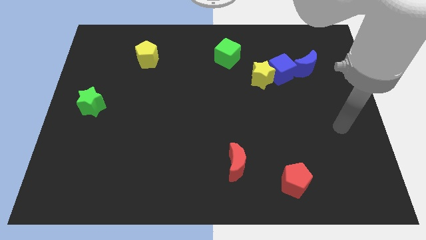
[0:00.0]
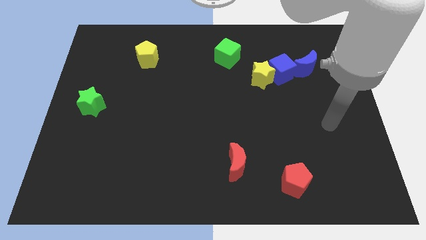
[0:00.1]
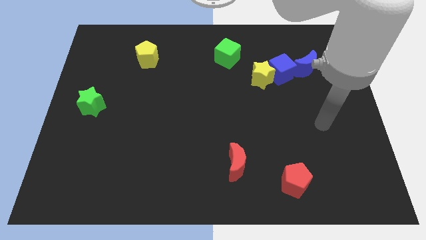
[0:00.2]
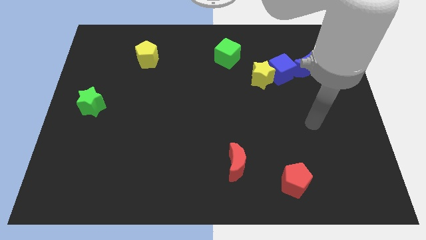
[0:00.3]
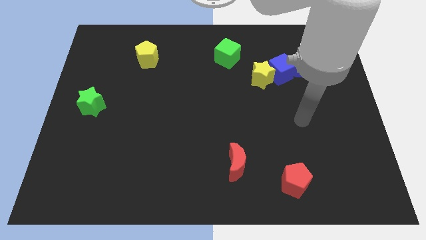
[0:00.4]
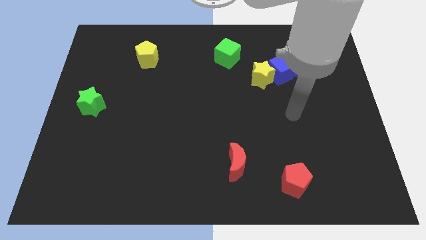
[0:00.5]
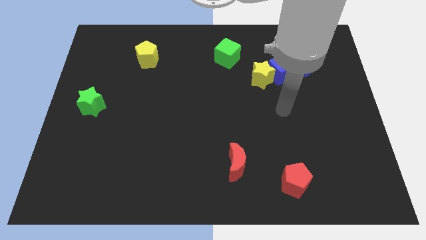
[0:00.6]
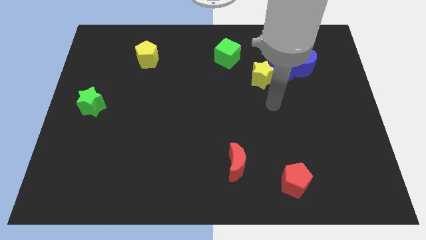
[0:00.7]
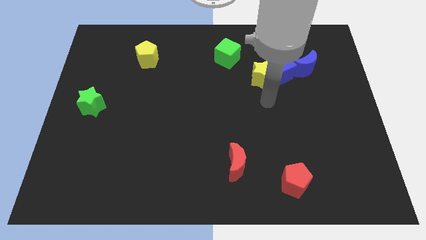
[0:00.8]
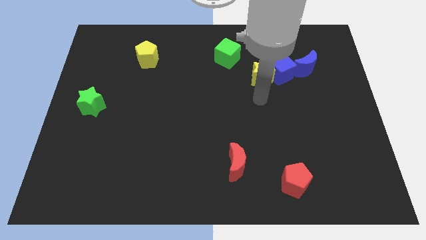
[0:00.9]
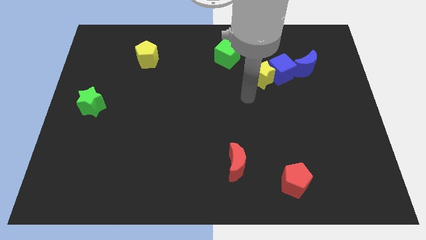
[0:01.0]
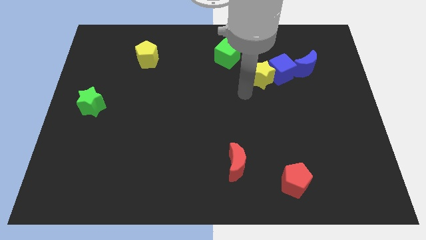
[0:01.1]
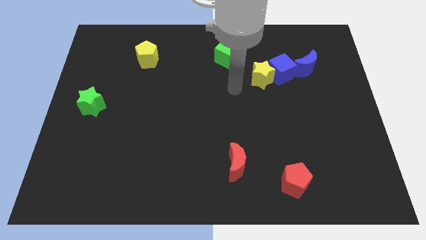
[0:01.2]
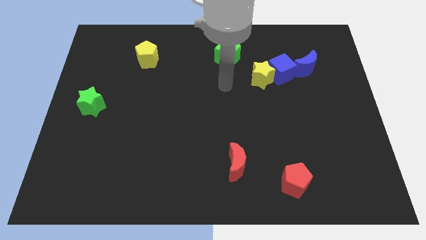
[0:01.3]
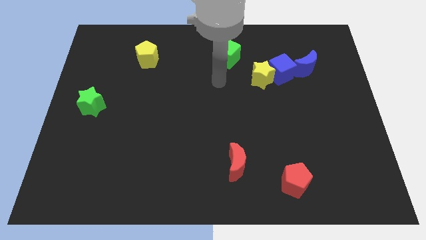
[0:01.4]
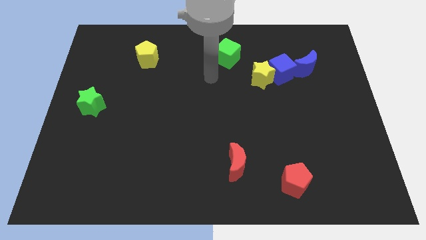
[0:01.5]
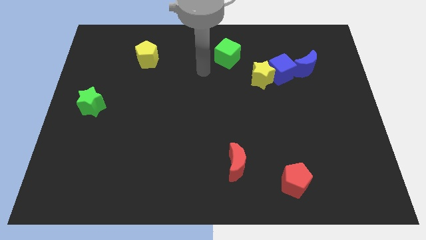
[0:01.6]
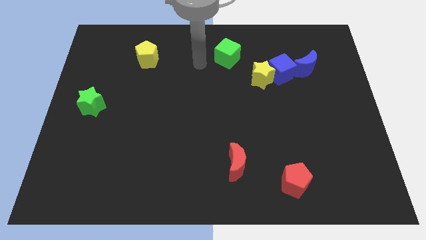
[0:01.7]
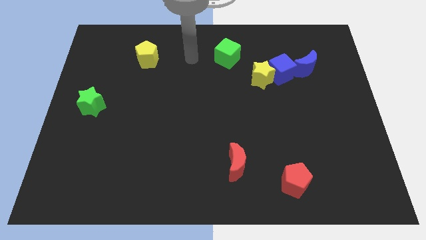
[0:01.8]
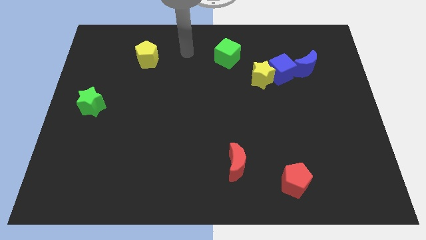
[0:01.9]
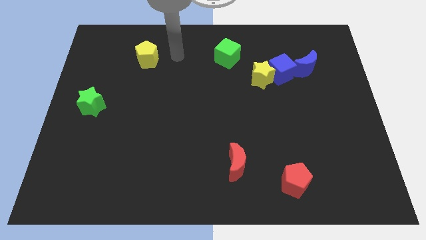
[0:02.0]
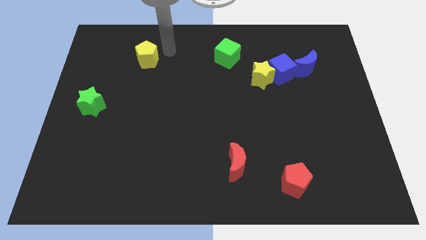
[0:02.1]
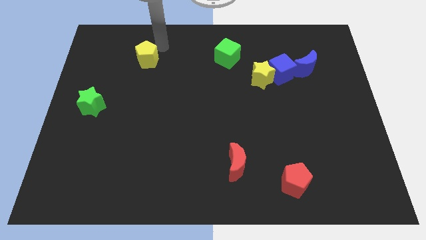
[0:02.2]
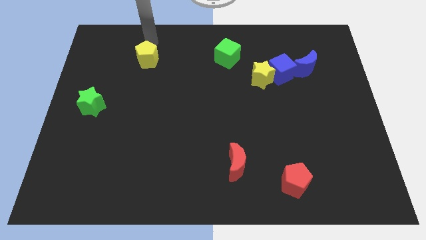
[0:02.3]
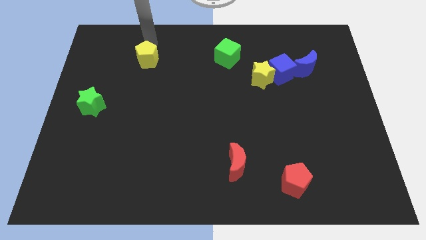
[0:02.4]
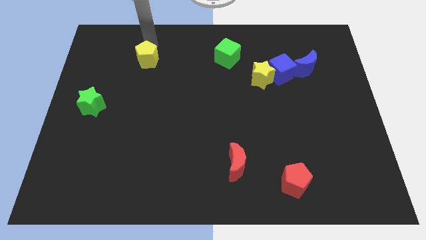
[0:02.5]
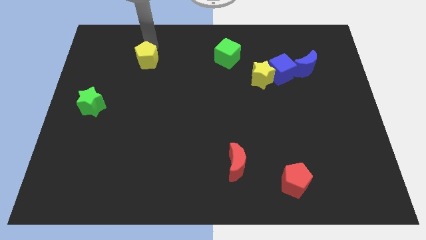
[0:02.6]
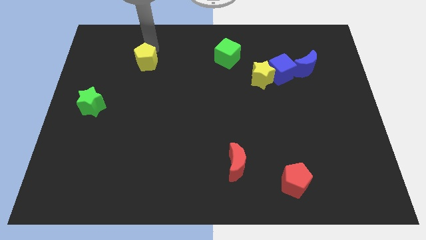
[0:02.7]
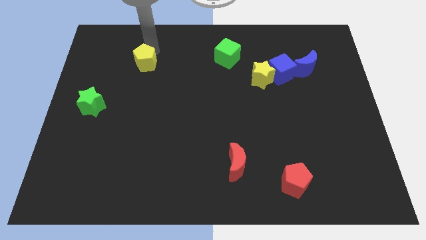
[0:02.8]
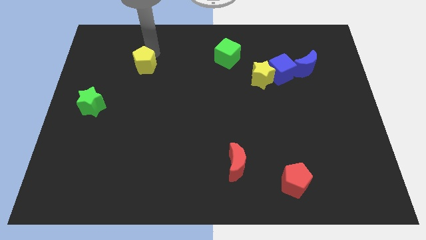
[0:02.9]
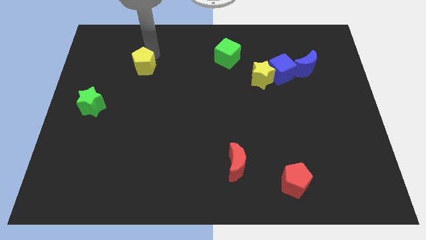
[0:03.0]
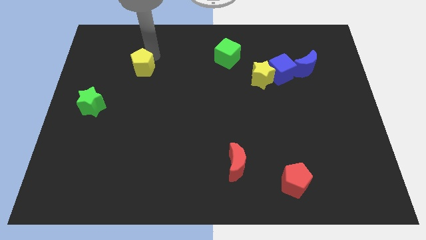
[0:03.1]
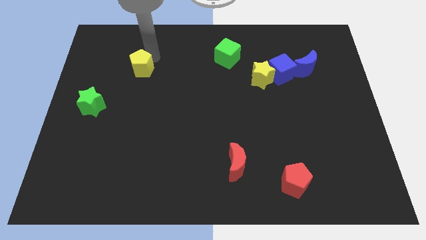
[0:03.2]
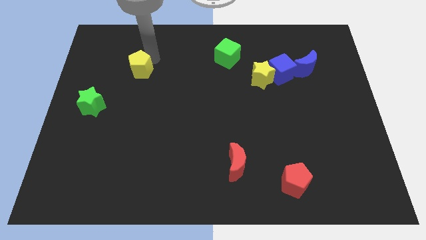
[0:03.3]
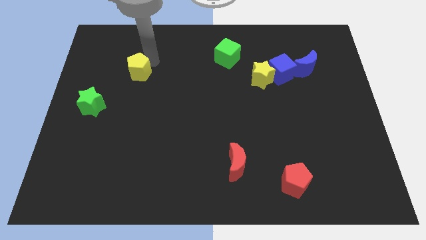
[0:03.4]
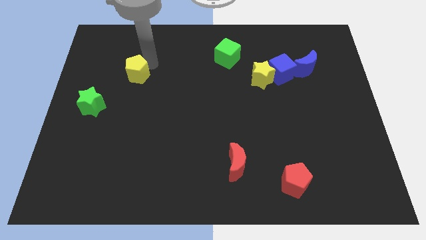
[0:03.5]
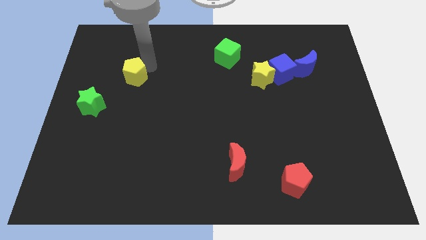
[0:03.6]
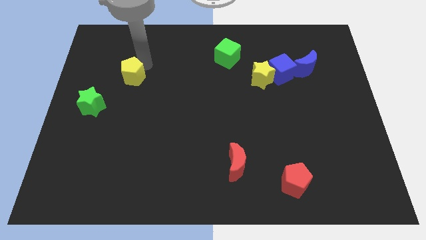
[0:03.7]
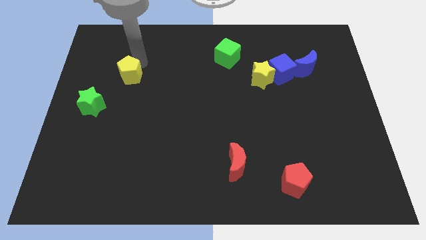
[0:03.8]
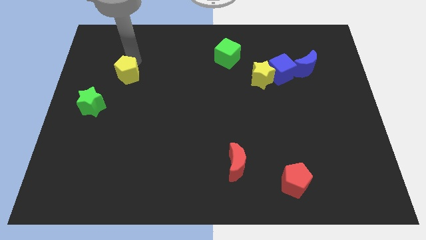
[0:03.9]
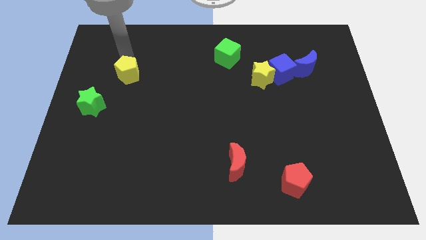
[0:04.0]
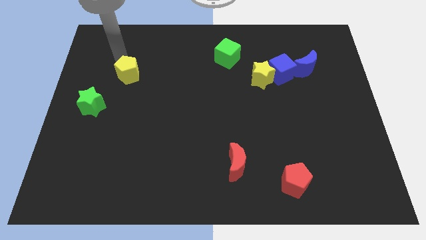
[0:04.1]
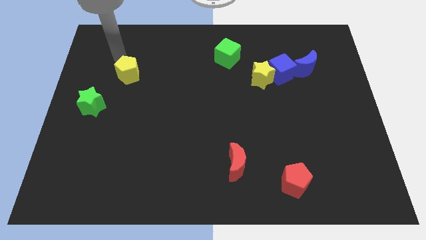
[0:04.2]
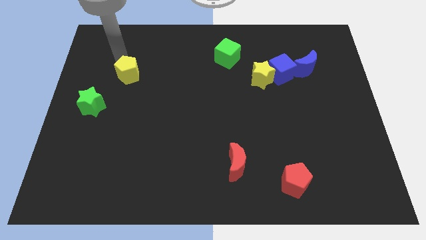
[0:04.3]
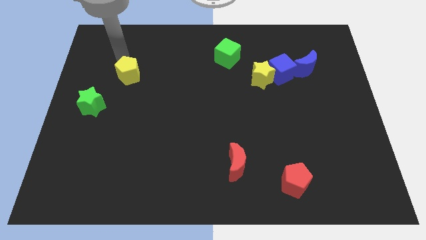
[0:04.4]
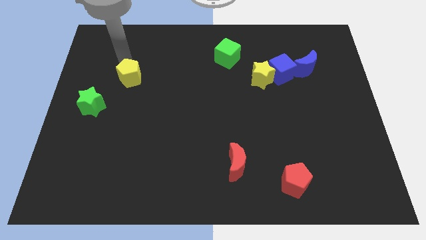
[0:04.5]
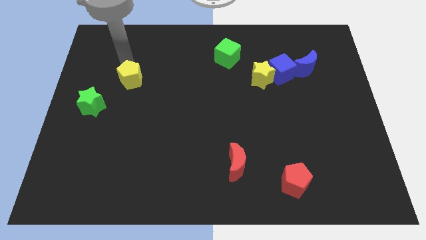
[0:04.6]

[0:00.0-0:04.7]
push the yellow pentagon a bit downwards

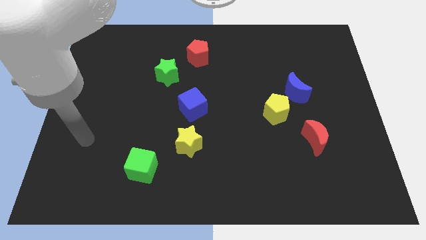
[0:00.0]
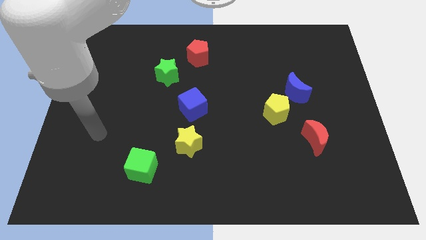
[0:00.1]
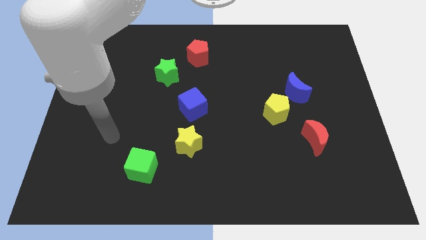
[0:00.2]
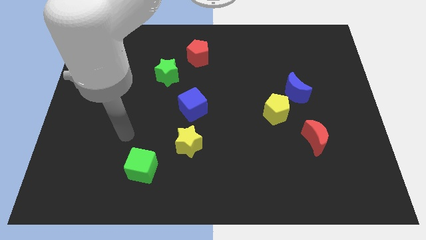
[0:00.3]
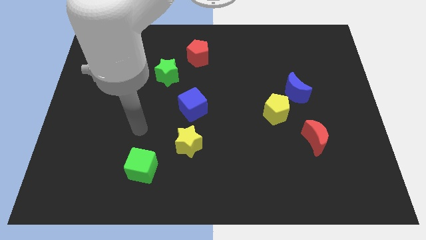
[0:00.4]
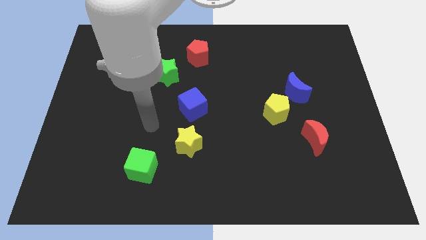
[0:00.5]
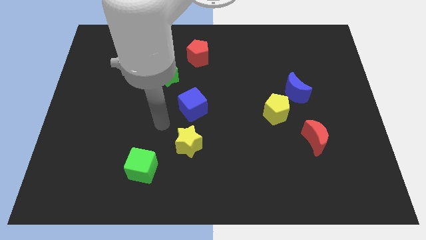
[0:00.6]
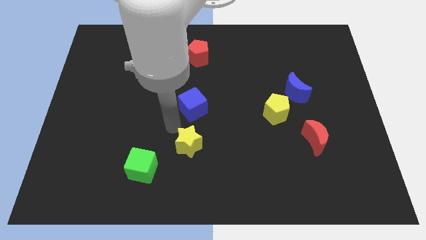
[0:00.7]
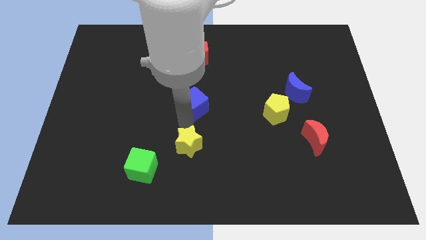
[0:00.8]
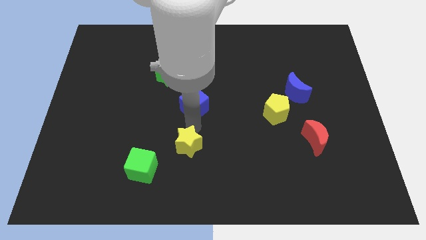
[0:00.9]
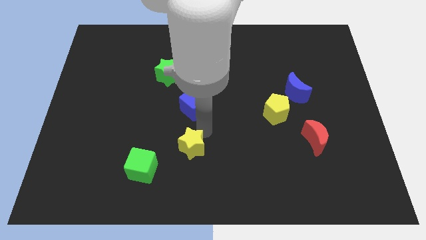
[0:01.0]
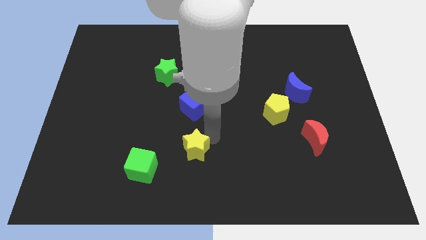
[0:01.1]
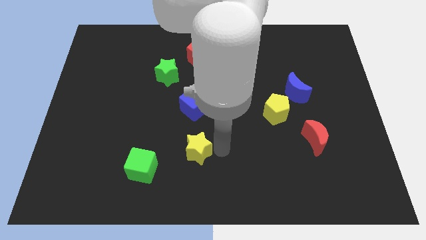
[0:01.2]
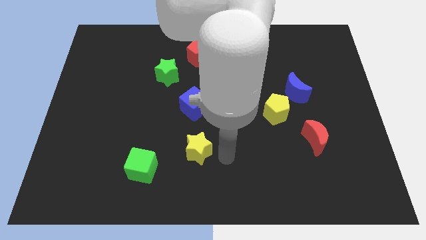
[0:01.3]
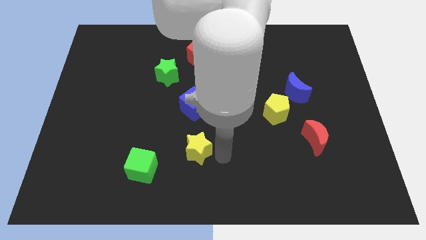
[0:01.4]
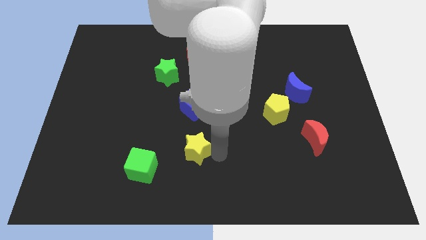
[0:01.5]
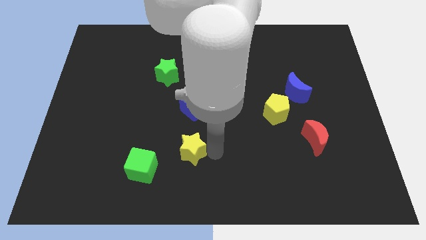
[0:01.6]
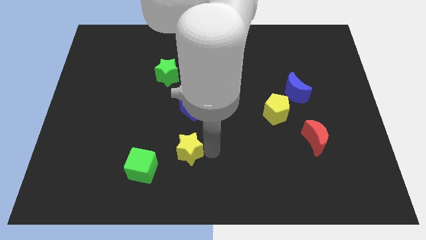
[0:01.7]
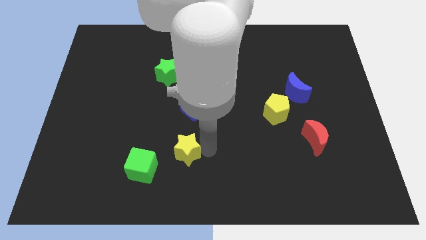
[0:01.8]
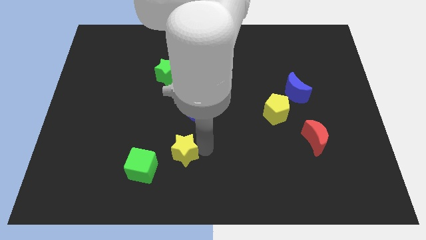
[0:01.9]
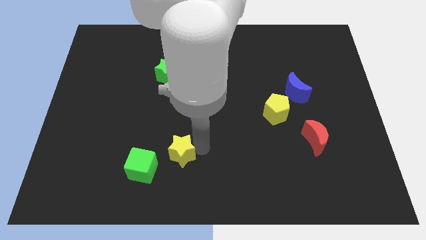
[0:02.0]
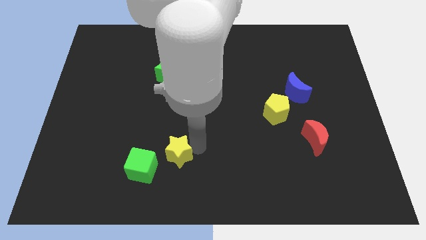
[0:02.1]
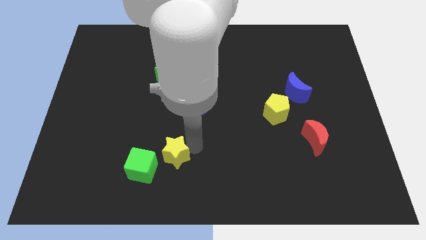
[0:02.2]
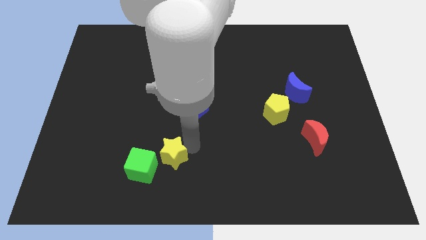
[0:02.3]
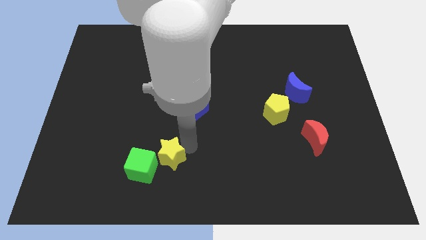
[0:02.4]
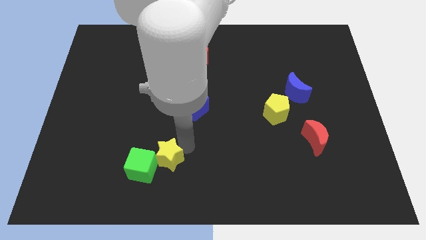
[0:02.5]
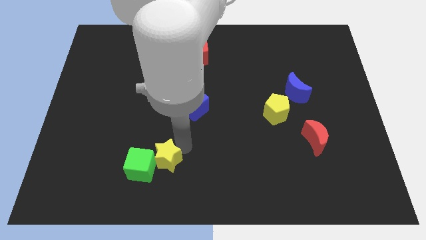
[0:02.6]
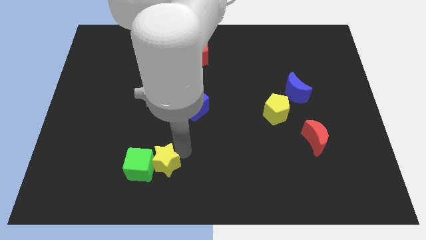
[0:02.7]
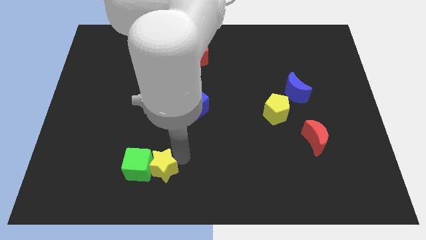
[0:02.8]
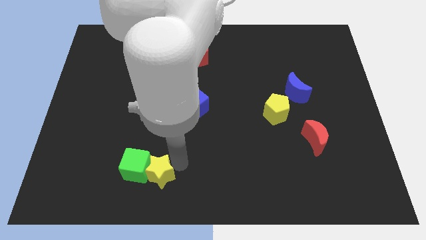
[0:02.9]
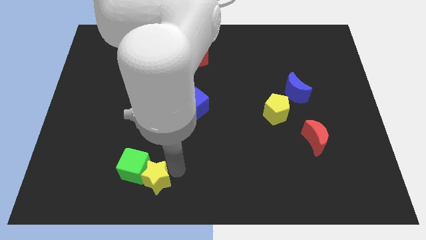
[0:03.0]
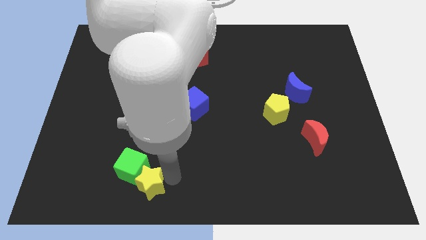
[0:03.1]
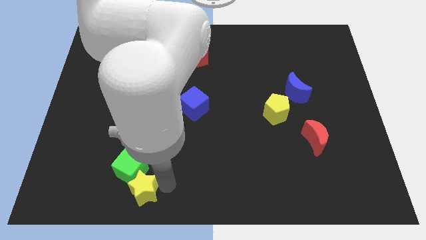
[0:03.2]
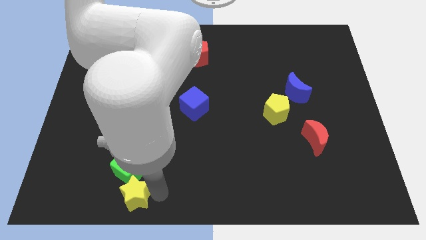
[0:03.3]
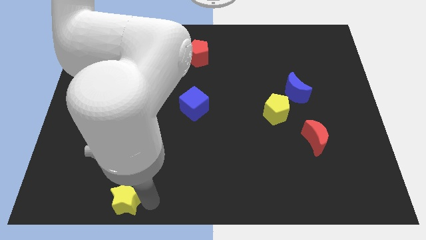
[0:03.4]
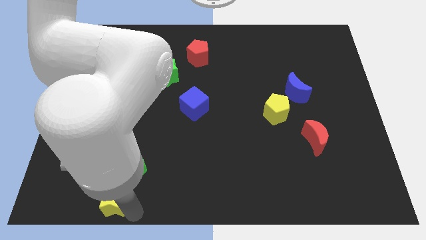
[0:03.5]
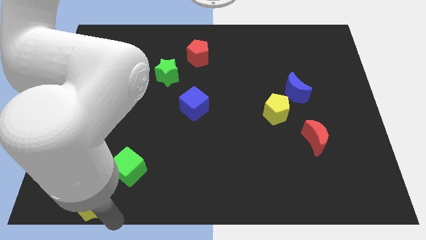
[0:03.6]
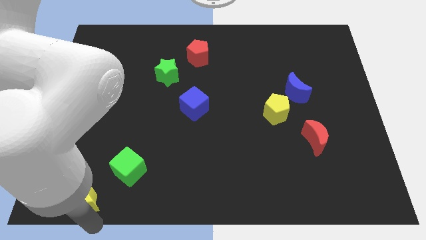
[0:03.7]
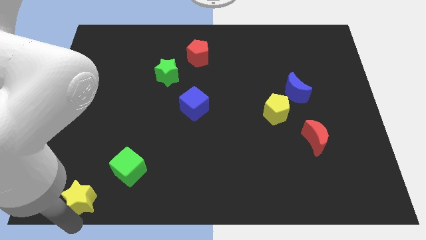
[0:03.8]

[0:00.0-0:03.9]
move the yellow star slightly to the left
